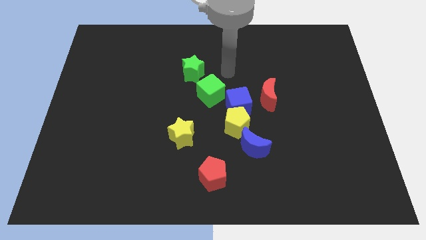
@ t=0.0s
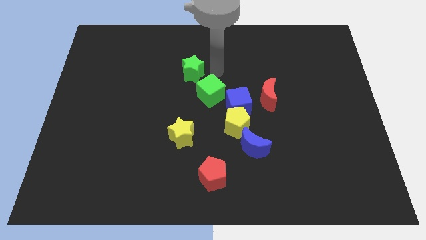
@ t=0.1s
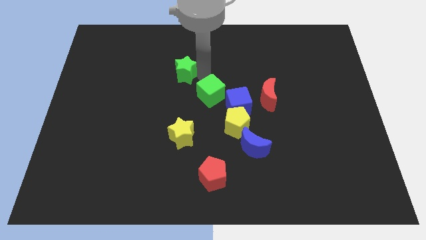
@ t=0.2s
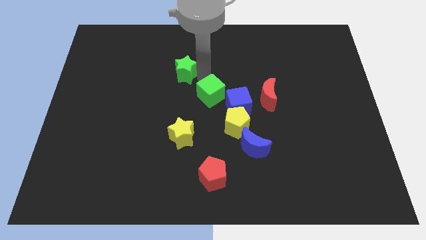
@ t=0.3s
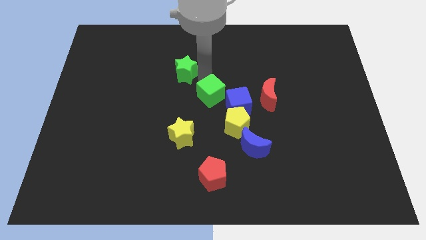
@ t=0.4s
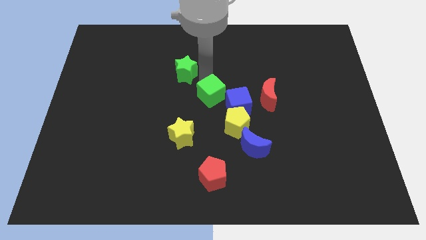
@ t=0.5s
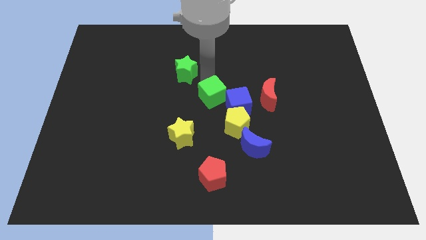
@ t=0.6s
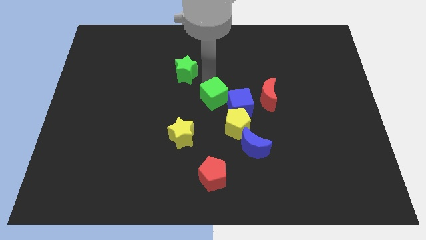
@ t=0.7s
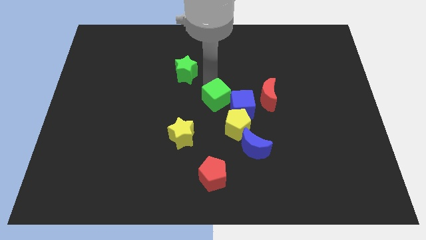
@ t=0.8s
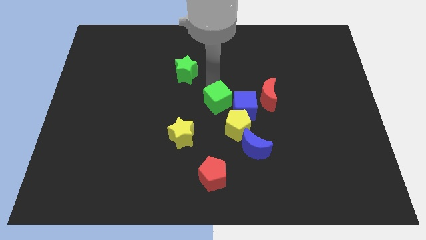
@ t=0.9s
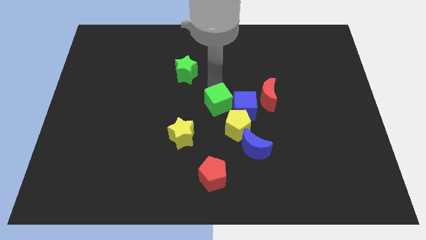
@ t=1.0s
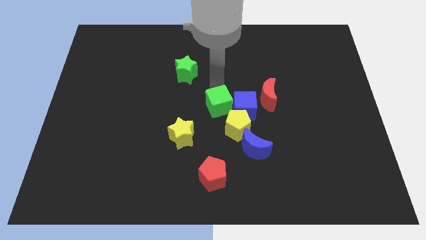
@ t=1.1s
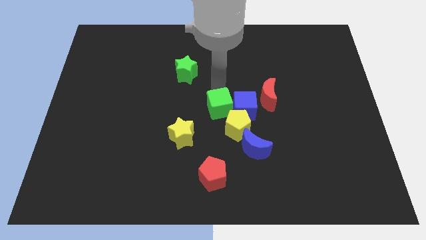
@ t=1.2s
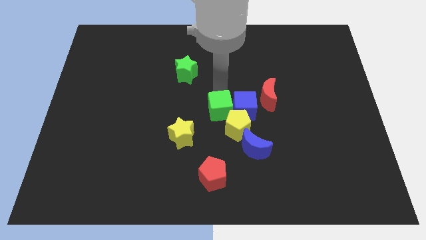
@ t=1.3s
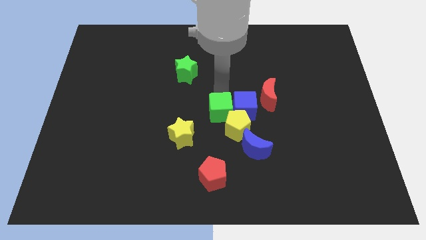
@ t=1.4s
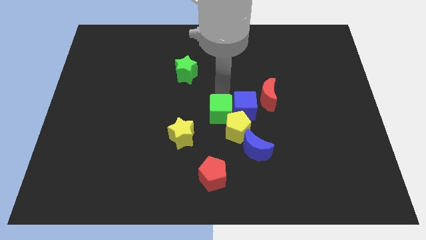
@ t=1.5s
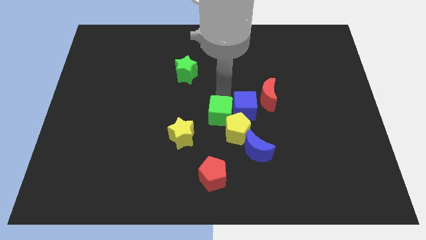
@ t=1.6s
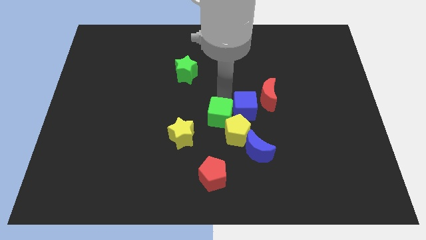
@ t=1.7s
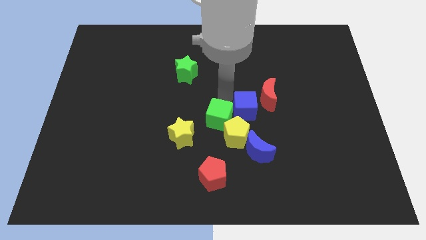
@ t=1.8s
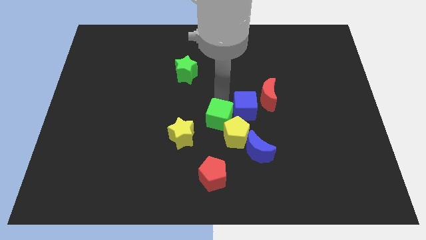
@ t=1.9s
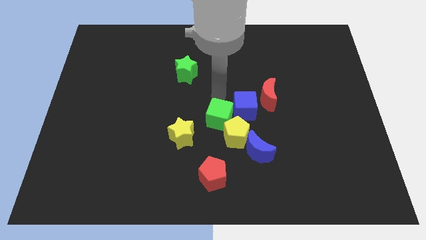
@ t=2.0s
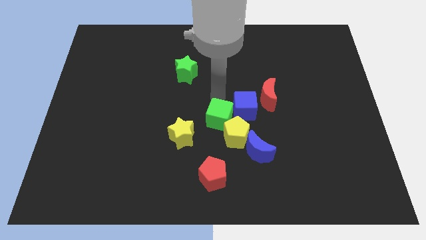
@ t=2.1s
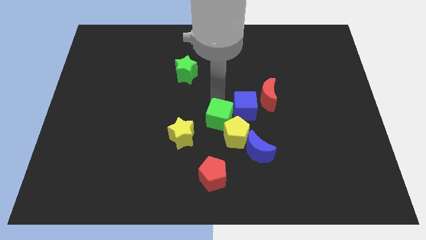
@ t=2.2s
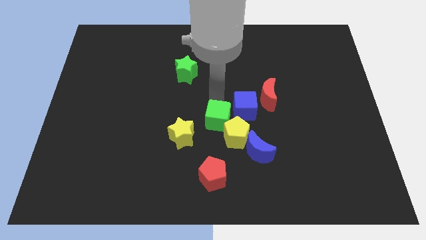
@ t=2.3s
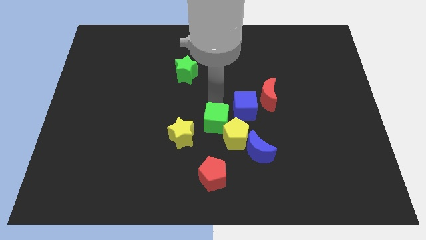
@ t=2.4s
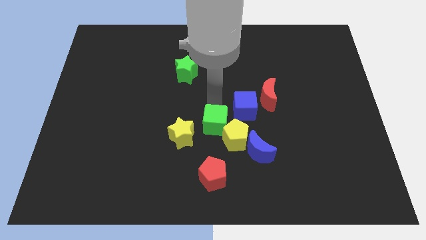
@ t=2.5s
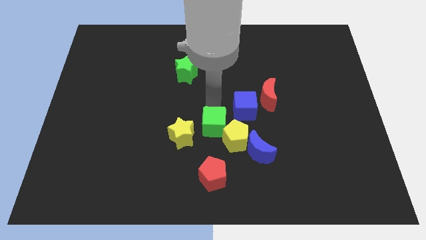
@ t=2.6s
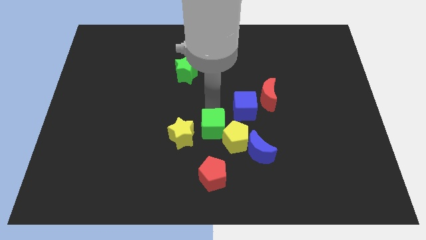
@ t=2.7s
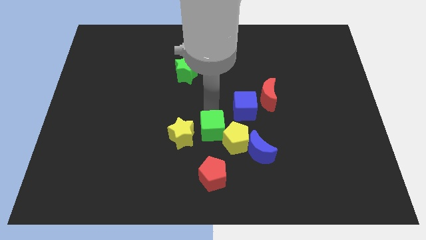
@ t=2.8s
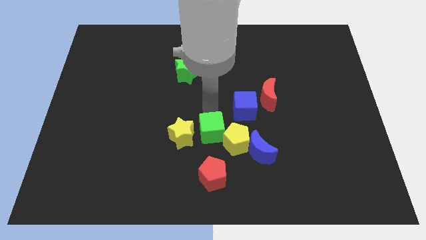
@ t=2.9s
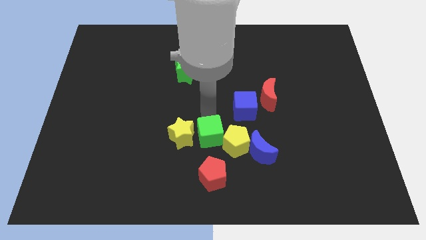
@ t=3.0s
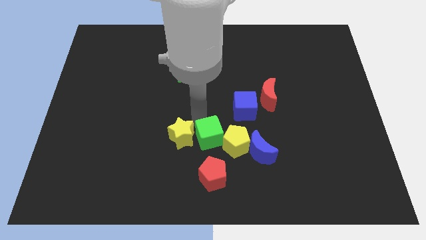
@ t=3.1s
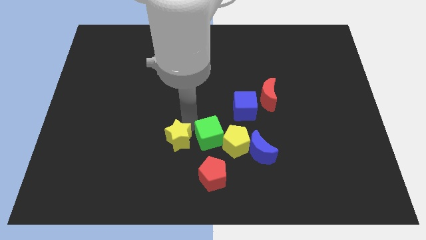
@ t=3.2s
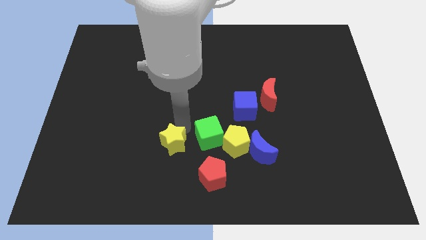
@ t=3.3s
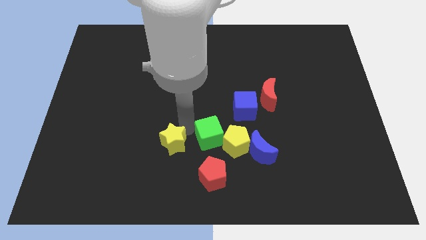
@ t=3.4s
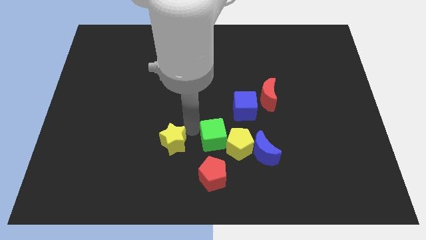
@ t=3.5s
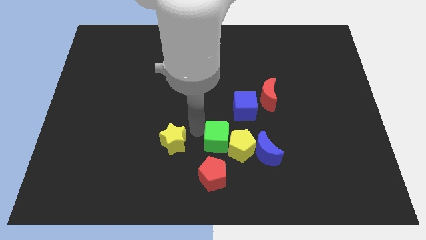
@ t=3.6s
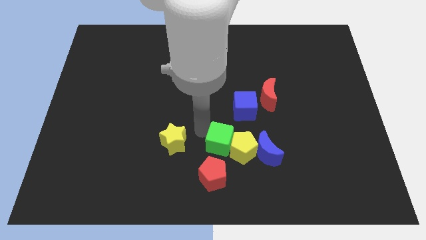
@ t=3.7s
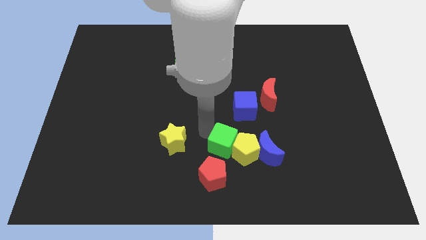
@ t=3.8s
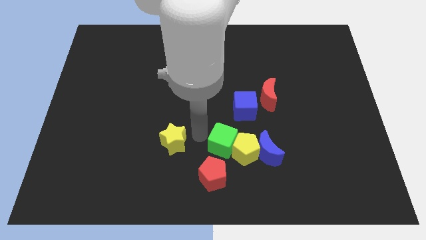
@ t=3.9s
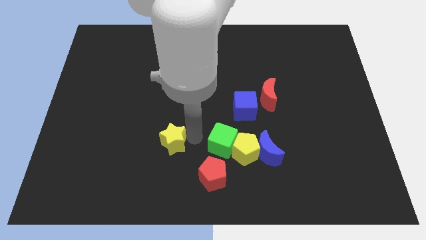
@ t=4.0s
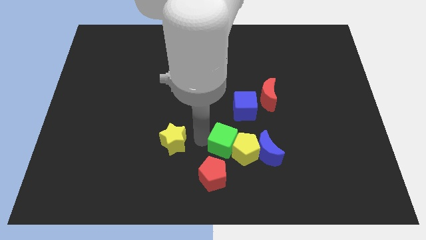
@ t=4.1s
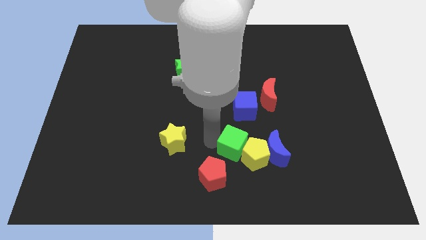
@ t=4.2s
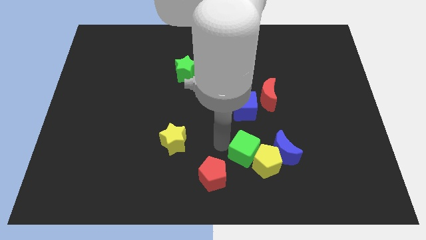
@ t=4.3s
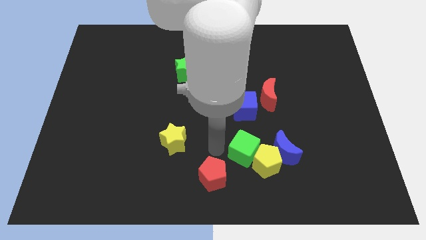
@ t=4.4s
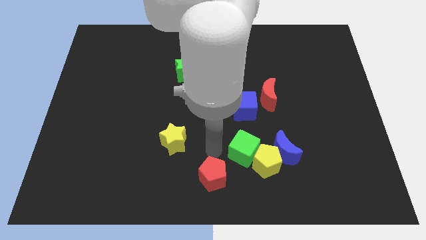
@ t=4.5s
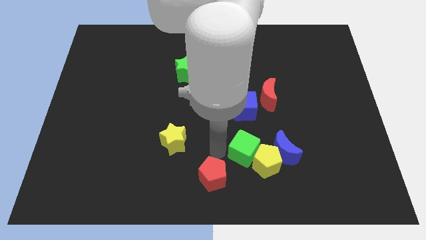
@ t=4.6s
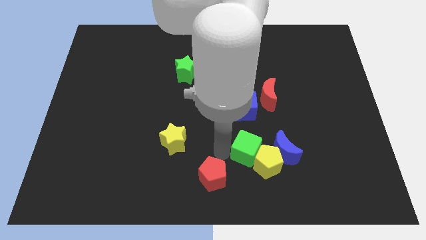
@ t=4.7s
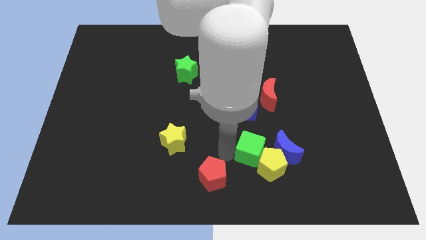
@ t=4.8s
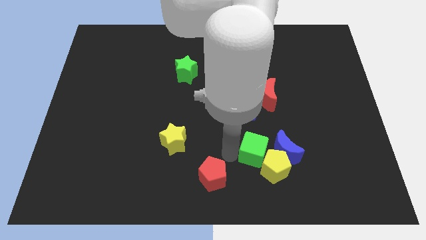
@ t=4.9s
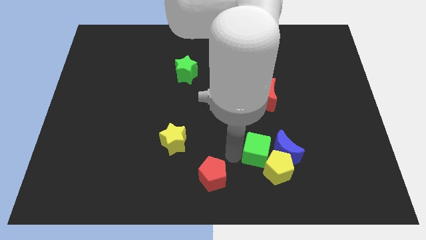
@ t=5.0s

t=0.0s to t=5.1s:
push the green cube towards the blue moon

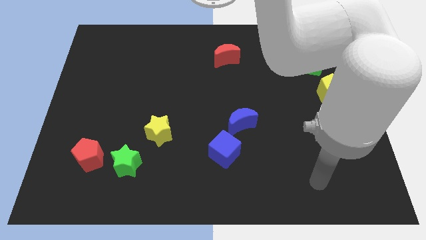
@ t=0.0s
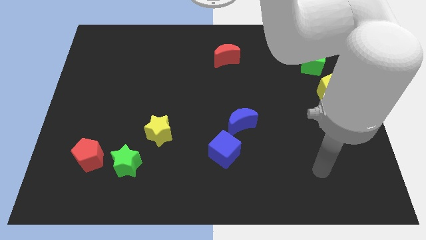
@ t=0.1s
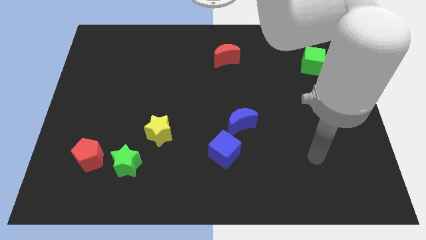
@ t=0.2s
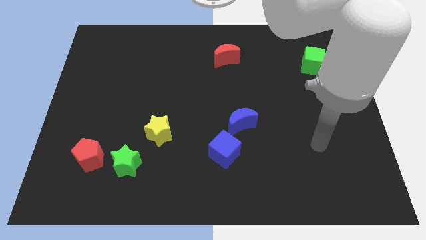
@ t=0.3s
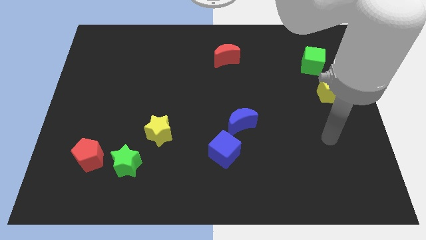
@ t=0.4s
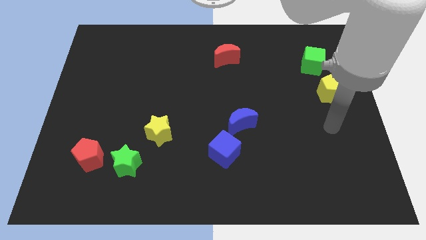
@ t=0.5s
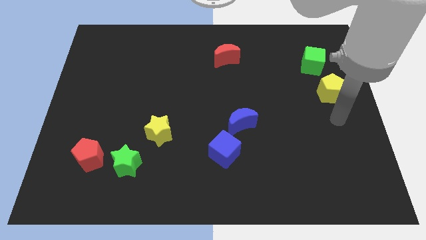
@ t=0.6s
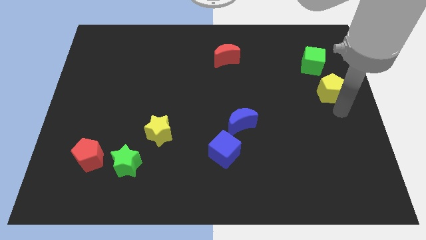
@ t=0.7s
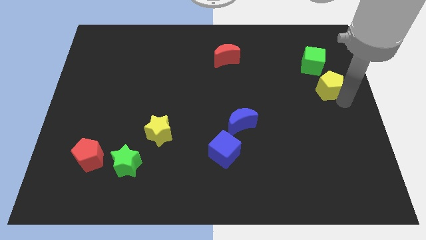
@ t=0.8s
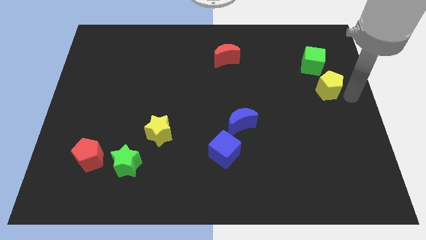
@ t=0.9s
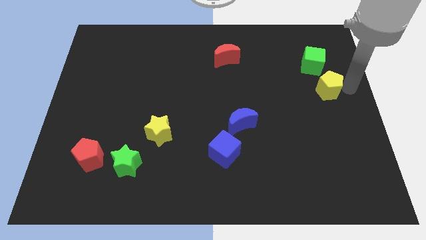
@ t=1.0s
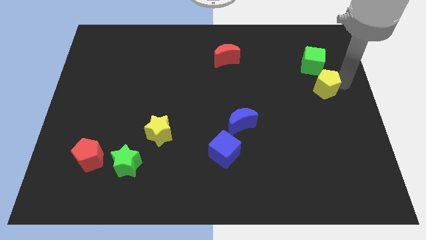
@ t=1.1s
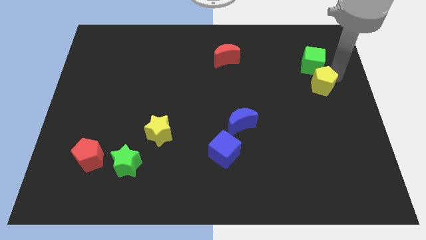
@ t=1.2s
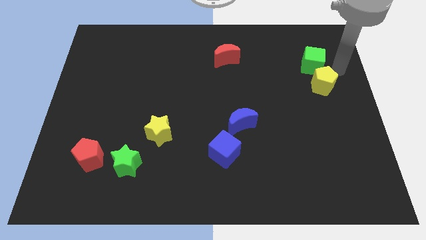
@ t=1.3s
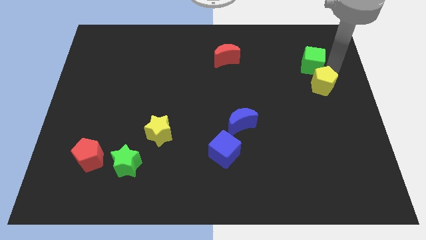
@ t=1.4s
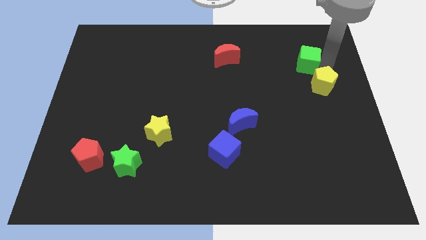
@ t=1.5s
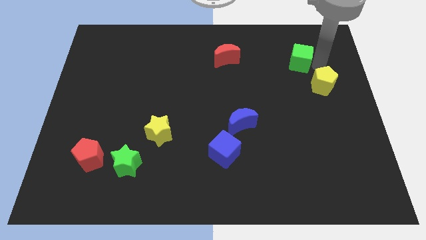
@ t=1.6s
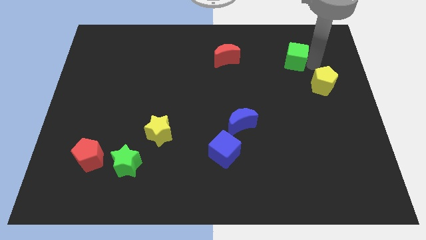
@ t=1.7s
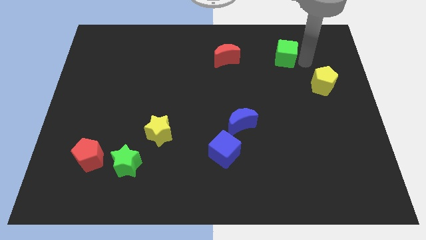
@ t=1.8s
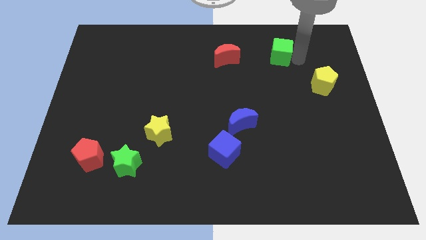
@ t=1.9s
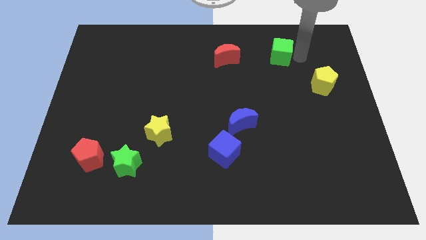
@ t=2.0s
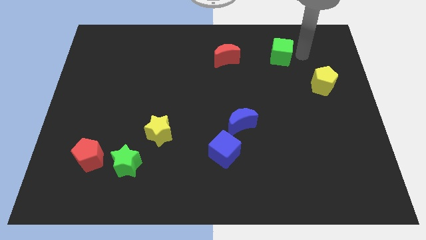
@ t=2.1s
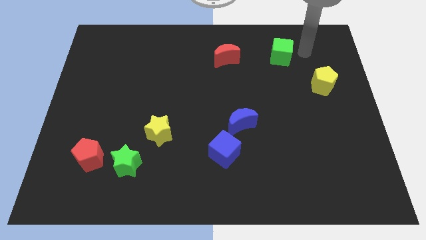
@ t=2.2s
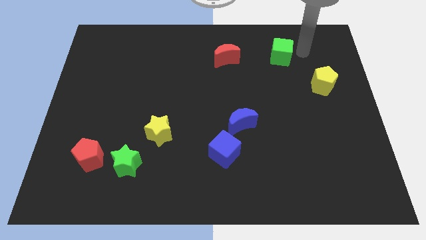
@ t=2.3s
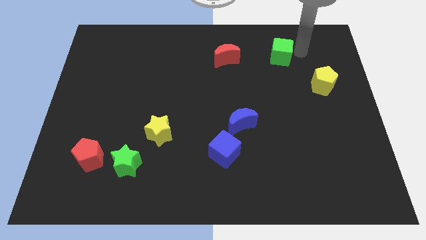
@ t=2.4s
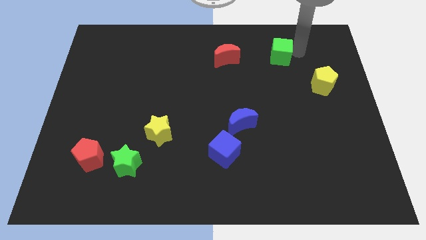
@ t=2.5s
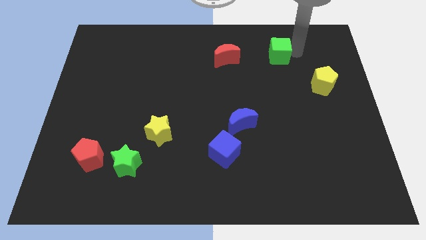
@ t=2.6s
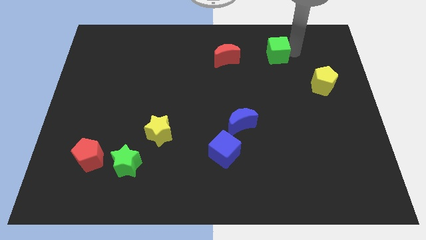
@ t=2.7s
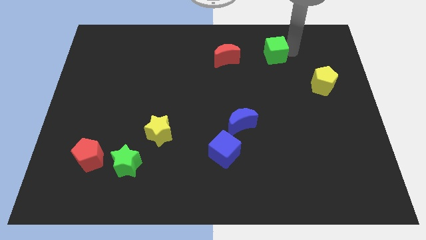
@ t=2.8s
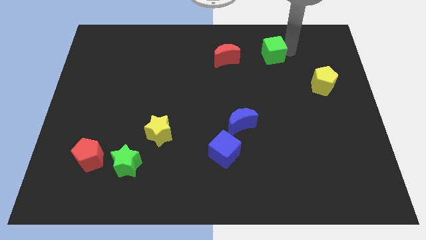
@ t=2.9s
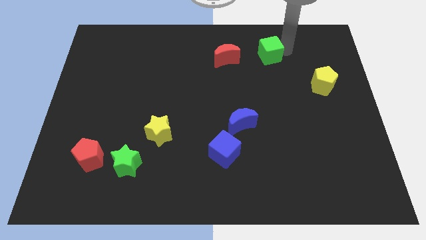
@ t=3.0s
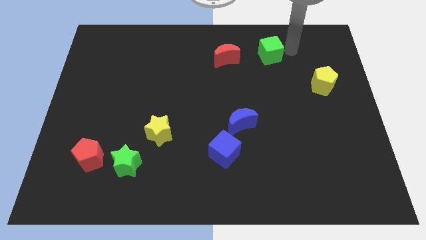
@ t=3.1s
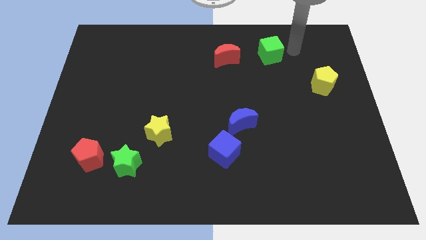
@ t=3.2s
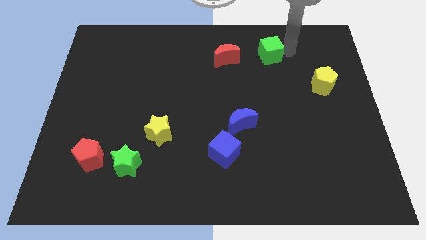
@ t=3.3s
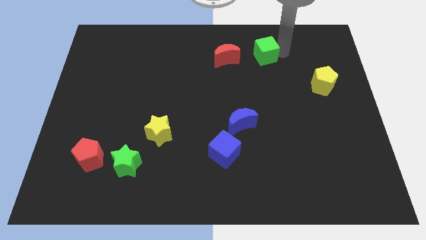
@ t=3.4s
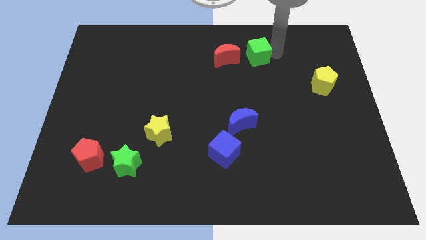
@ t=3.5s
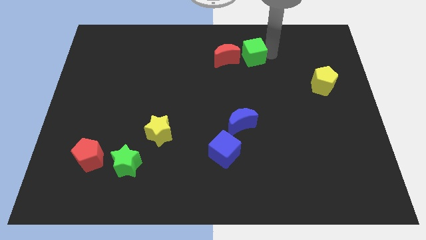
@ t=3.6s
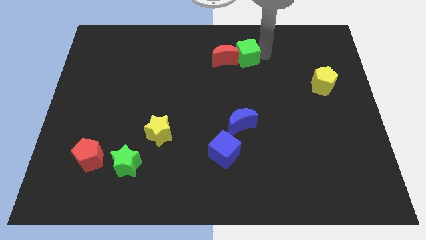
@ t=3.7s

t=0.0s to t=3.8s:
push the green cube close to the red moon
